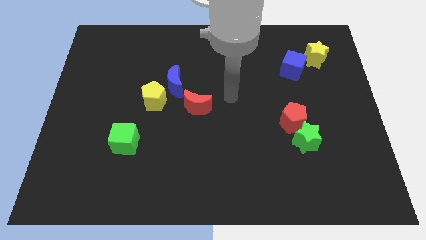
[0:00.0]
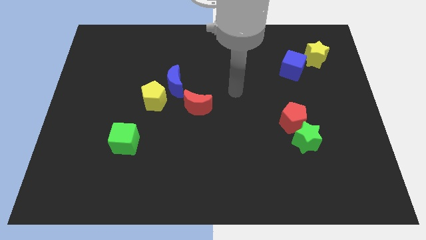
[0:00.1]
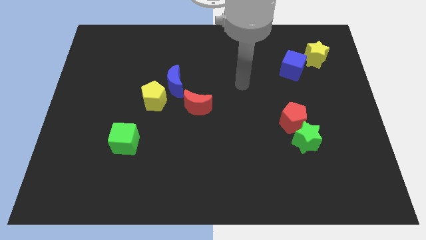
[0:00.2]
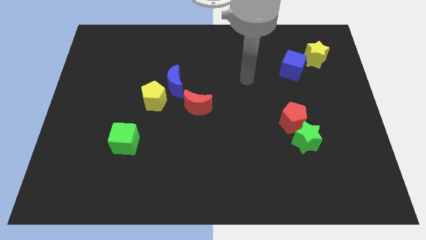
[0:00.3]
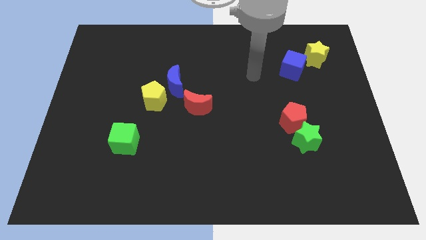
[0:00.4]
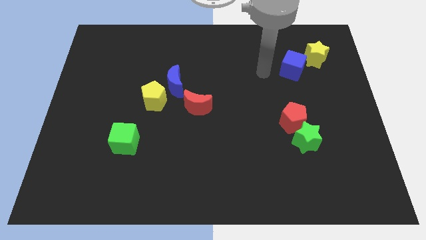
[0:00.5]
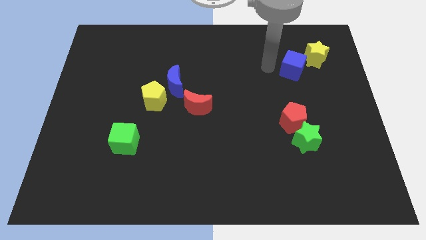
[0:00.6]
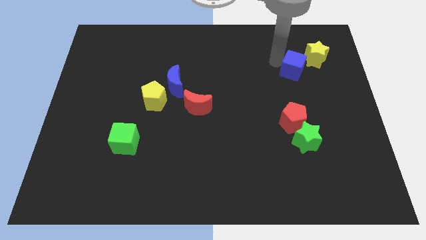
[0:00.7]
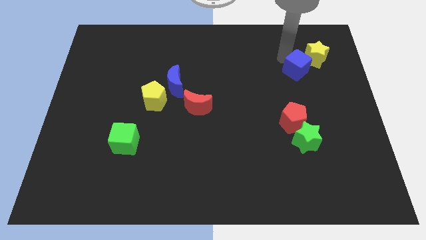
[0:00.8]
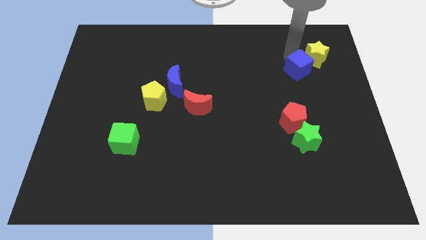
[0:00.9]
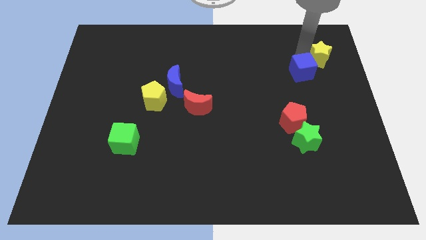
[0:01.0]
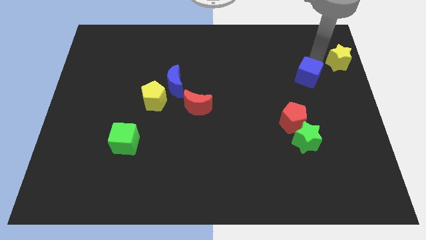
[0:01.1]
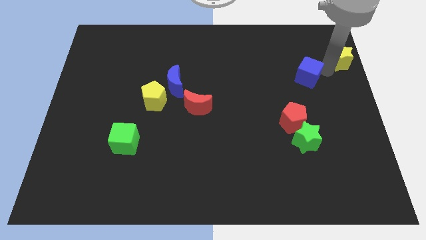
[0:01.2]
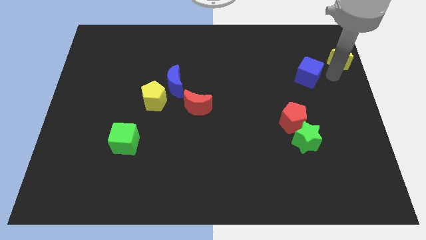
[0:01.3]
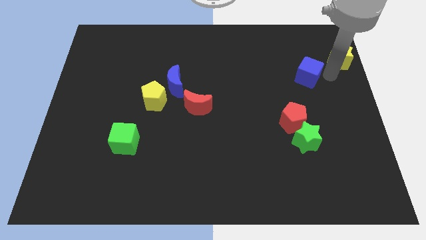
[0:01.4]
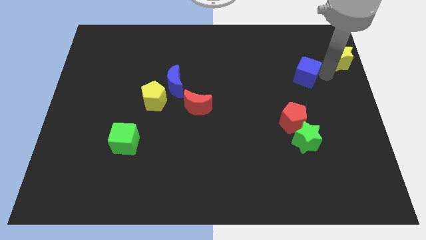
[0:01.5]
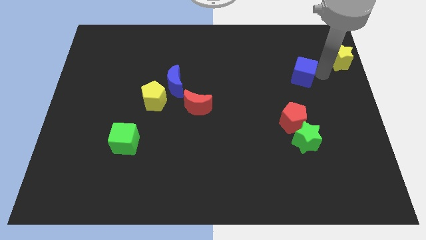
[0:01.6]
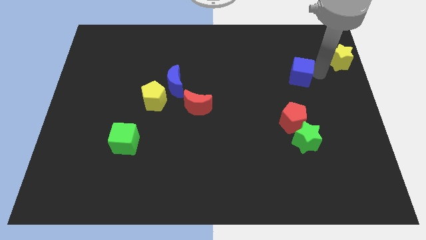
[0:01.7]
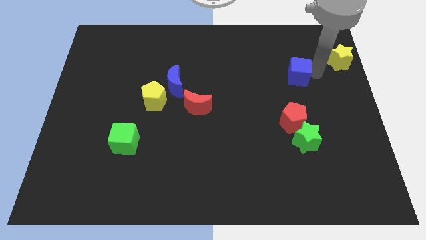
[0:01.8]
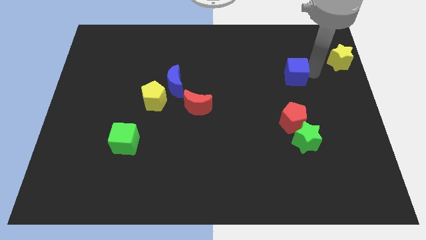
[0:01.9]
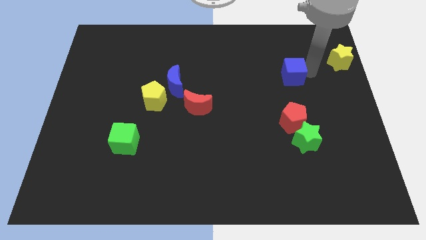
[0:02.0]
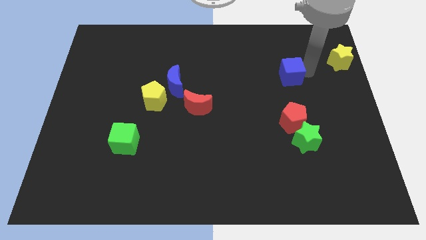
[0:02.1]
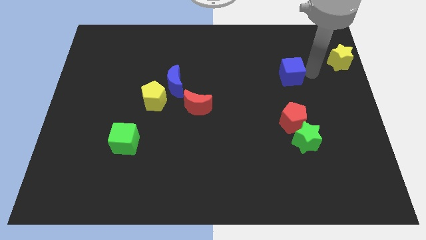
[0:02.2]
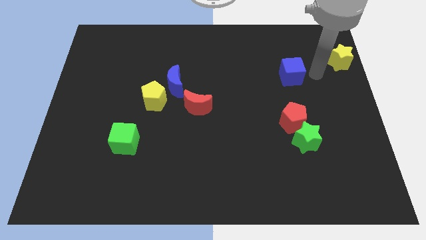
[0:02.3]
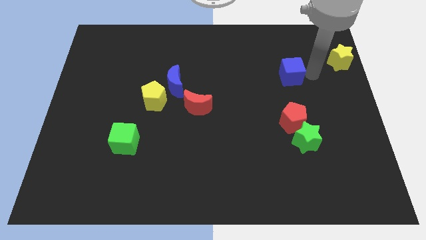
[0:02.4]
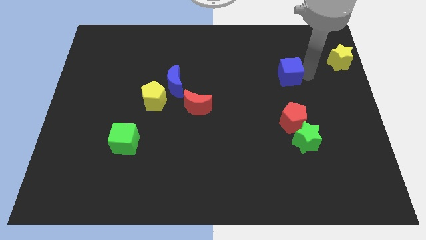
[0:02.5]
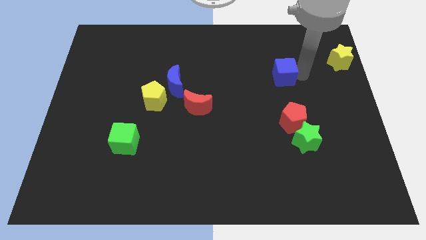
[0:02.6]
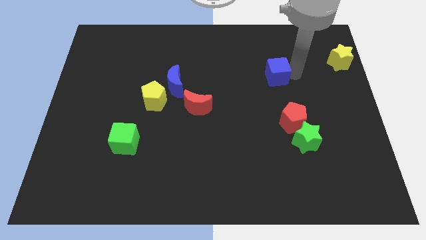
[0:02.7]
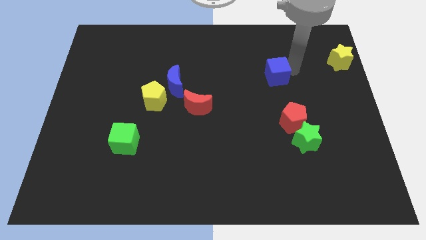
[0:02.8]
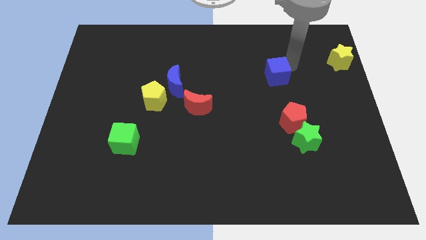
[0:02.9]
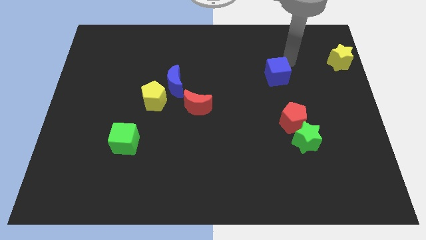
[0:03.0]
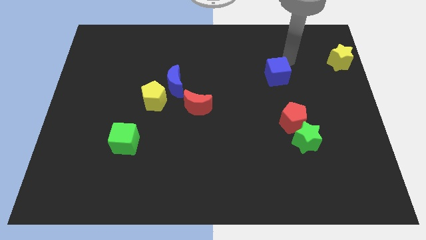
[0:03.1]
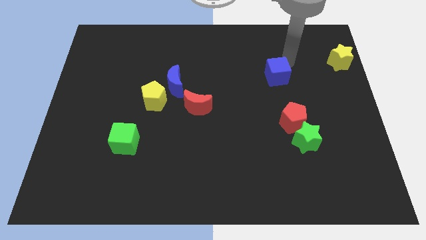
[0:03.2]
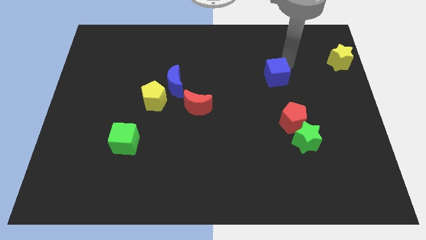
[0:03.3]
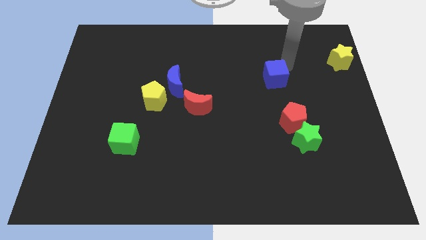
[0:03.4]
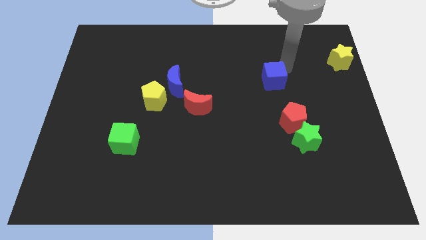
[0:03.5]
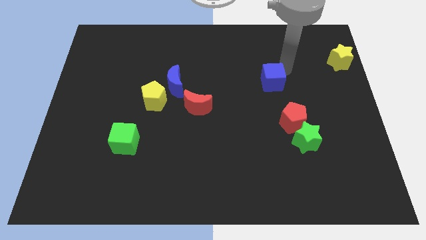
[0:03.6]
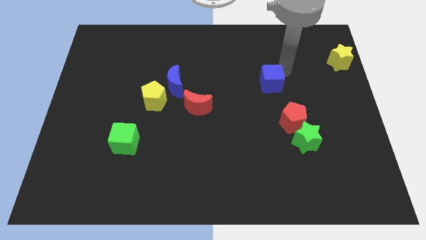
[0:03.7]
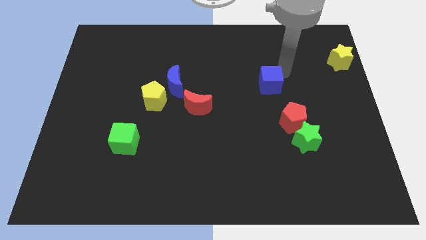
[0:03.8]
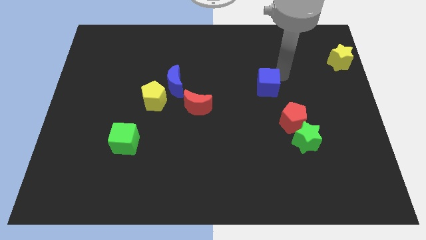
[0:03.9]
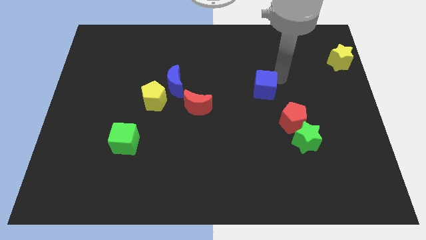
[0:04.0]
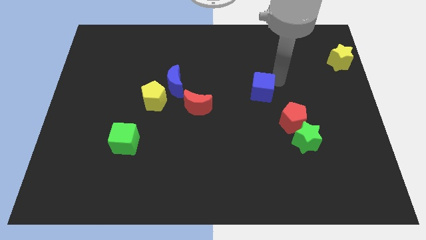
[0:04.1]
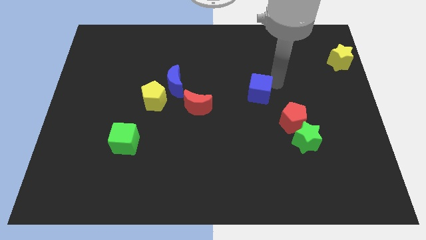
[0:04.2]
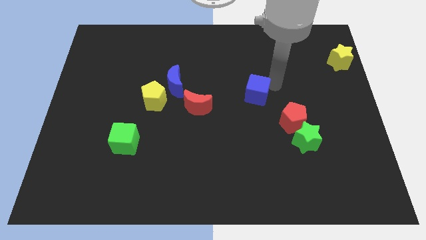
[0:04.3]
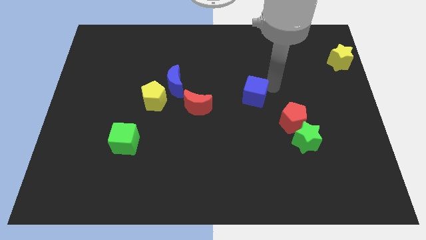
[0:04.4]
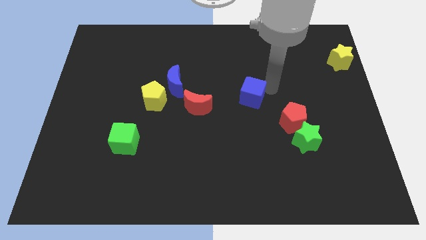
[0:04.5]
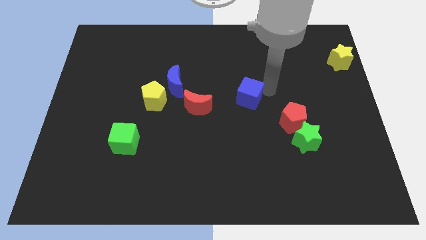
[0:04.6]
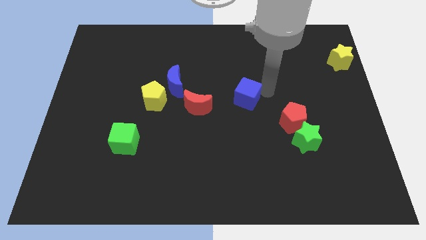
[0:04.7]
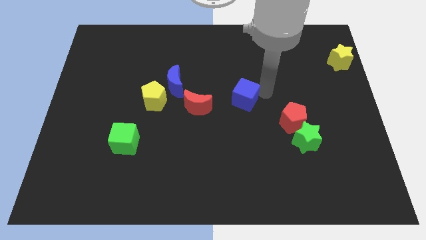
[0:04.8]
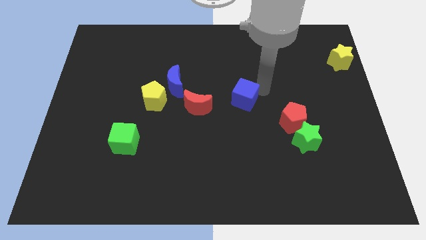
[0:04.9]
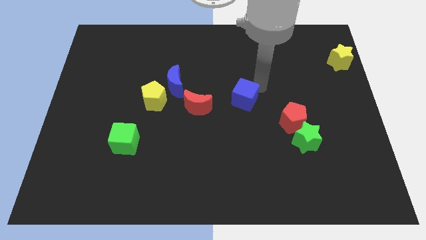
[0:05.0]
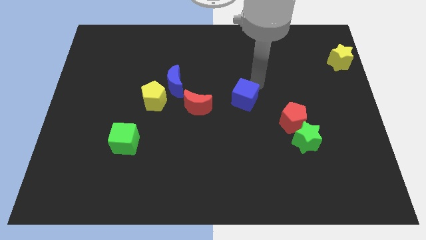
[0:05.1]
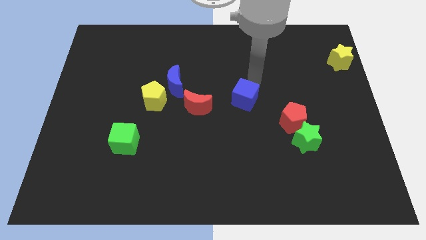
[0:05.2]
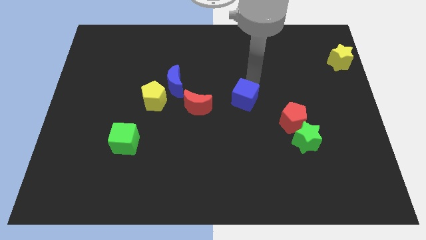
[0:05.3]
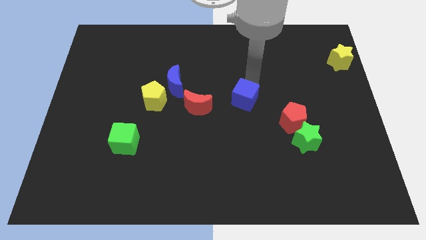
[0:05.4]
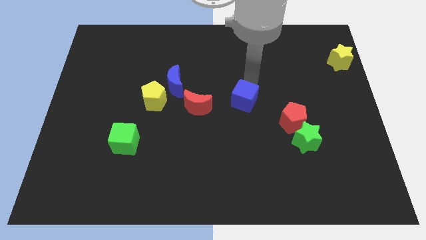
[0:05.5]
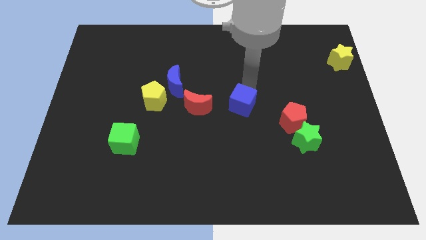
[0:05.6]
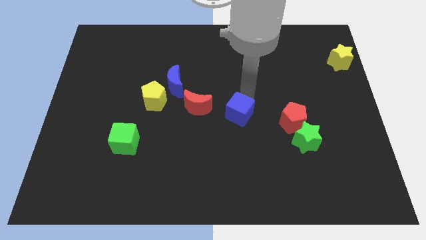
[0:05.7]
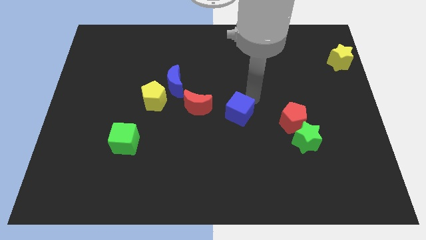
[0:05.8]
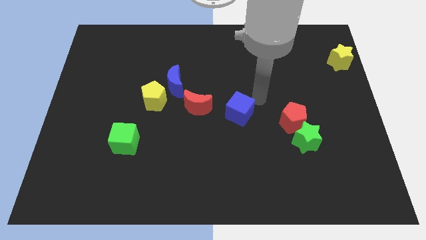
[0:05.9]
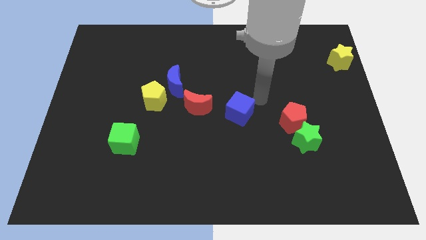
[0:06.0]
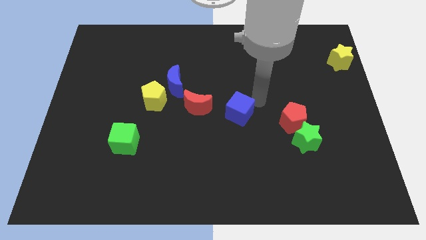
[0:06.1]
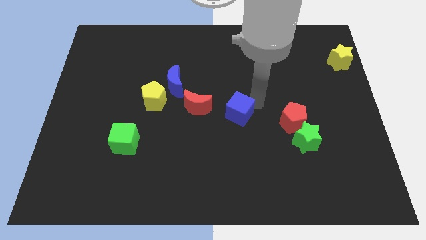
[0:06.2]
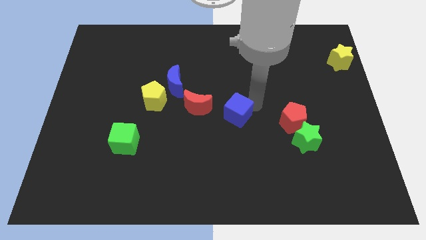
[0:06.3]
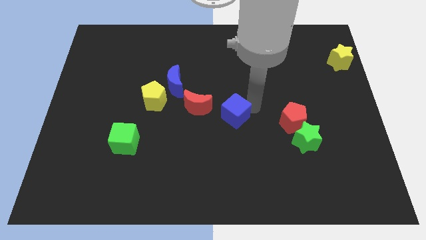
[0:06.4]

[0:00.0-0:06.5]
put the blue cube to the bottom right side of the red moon
